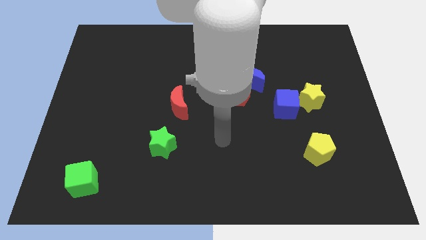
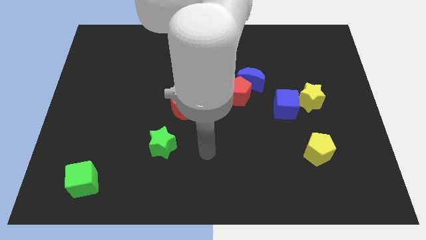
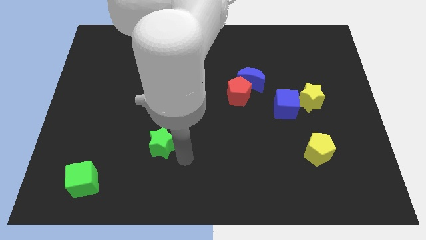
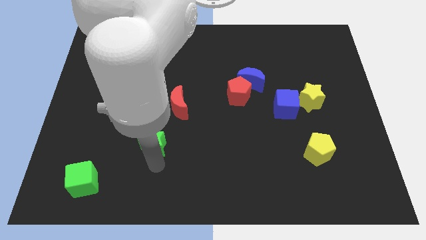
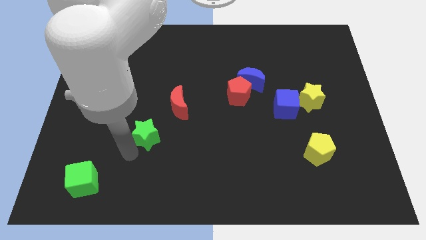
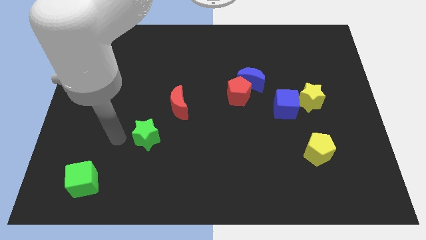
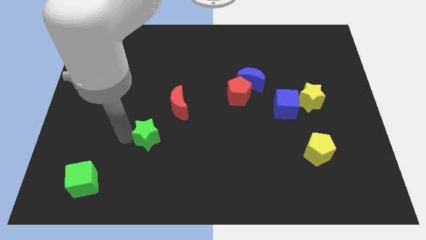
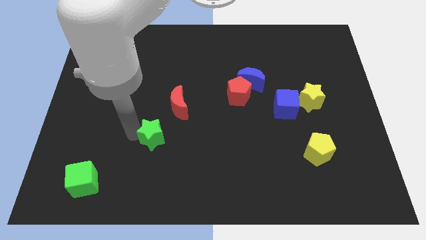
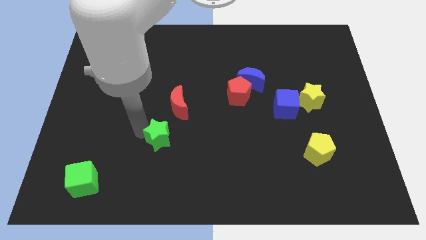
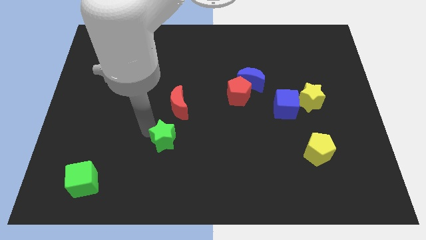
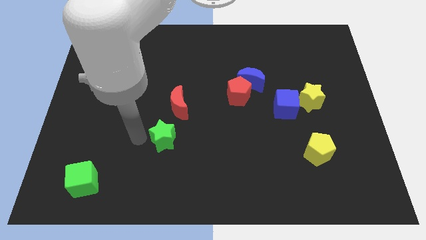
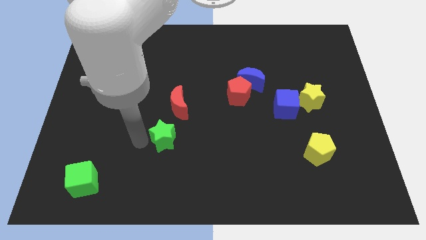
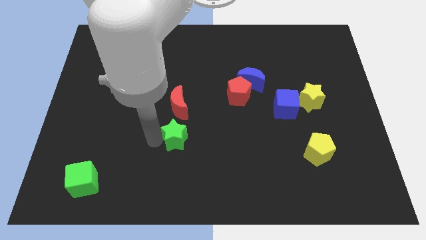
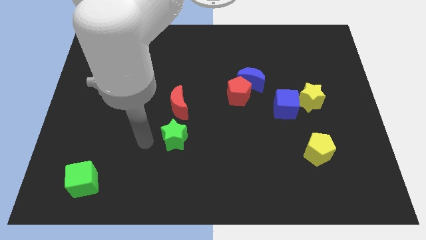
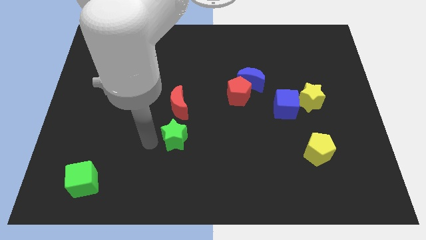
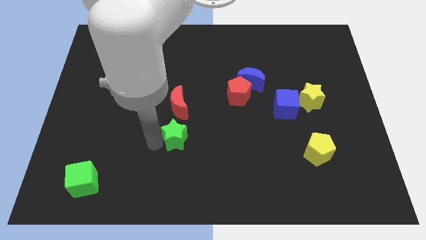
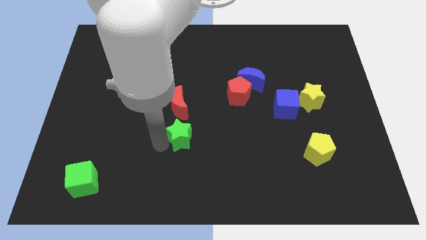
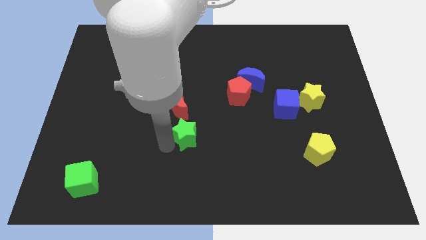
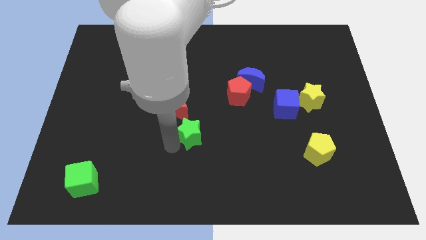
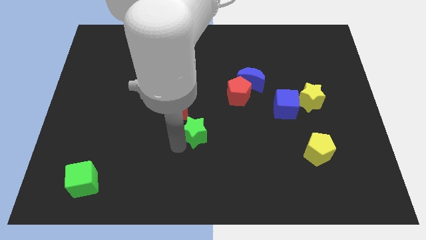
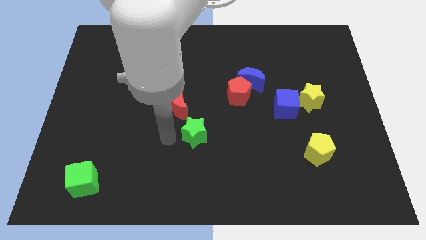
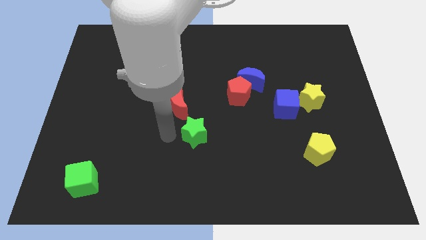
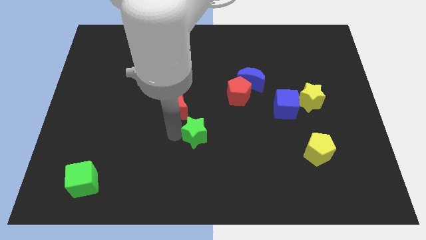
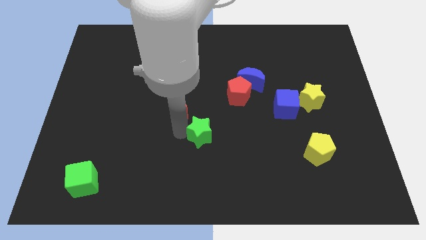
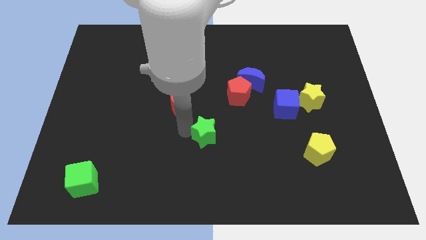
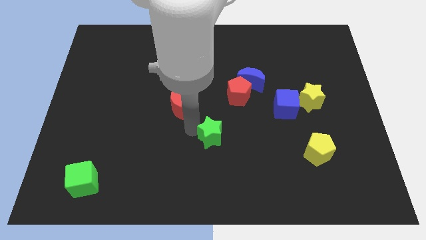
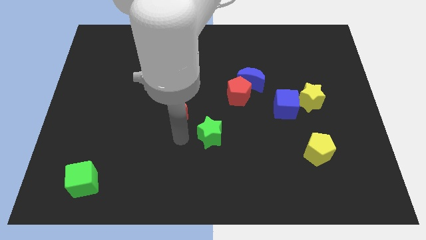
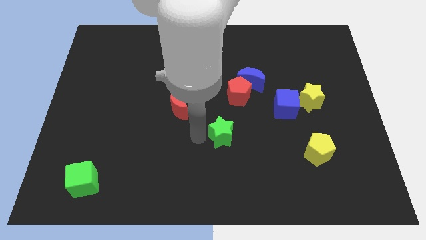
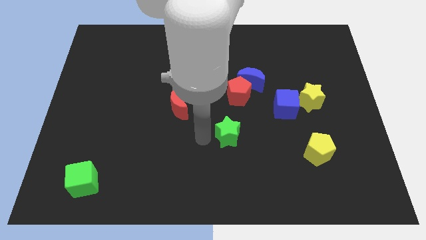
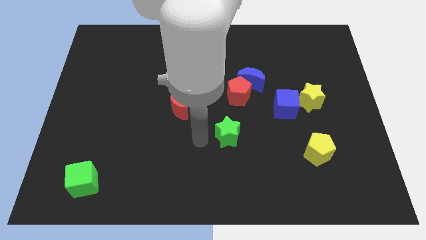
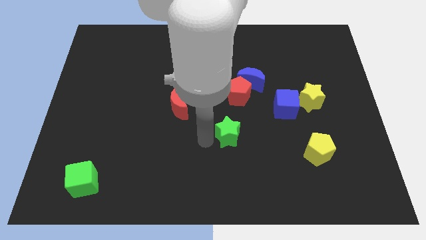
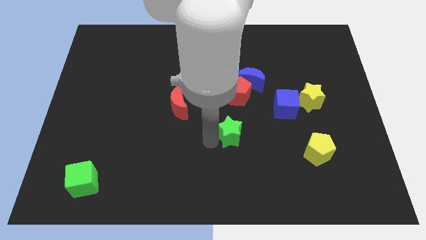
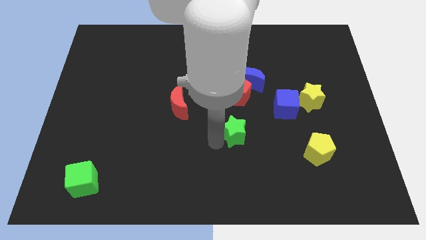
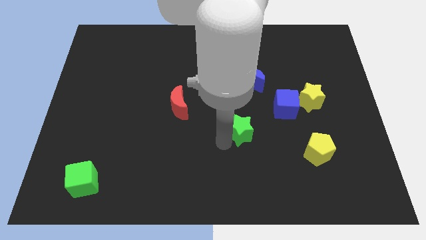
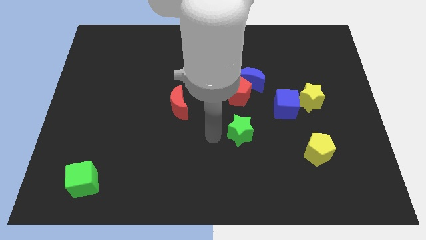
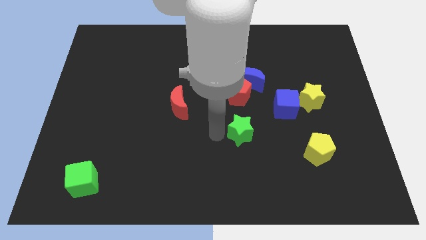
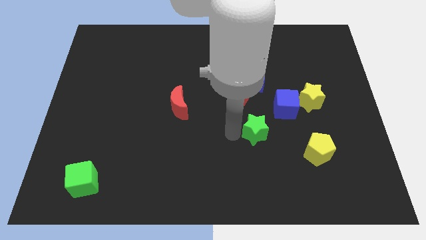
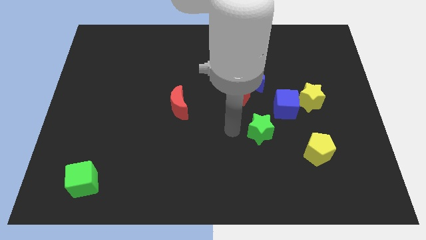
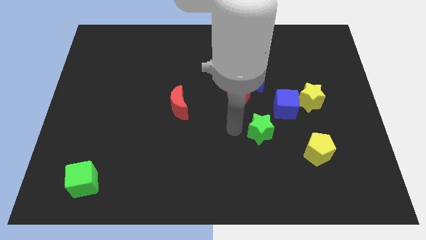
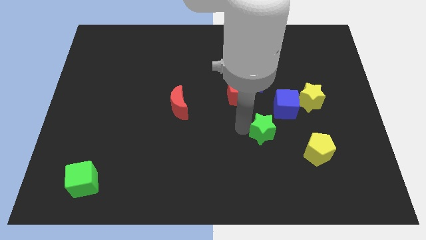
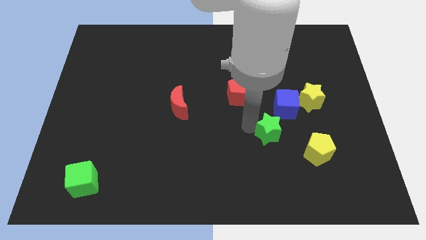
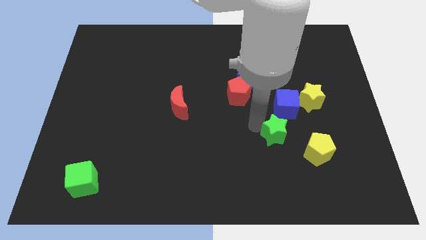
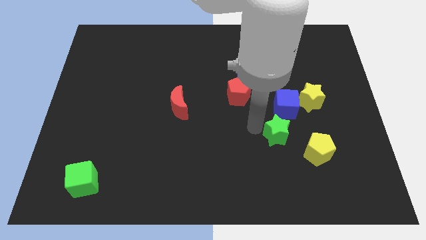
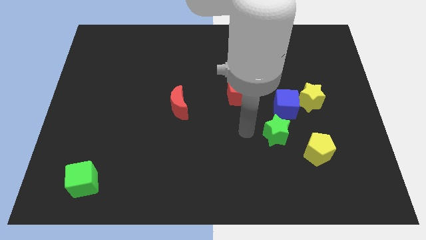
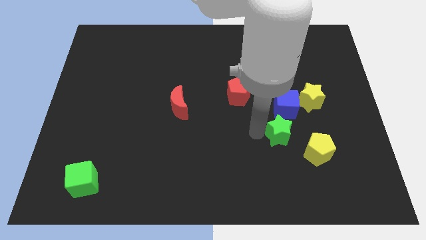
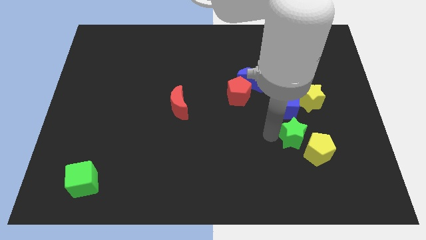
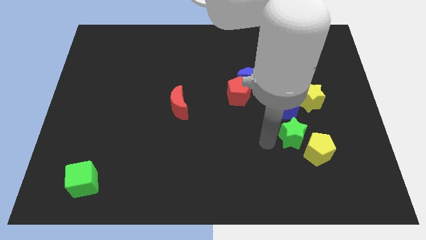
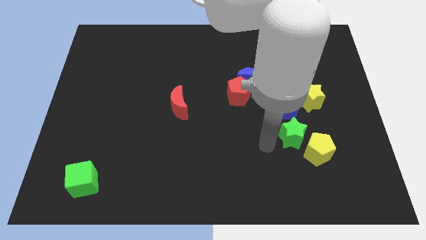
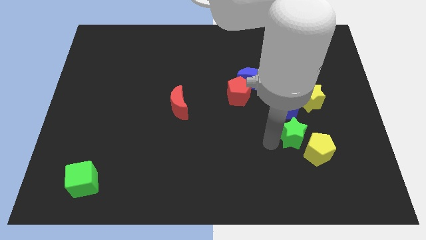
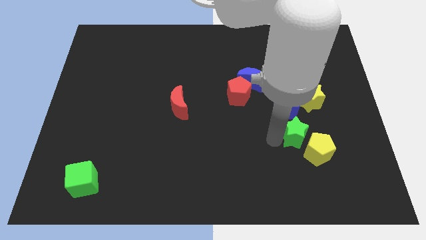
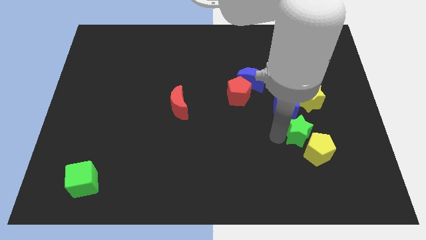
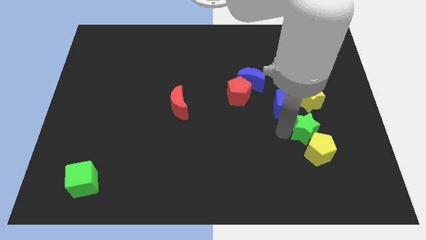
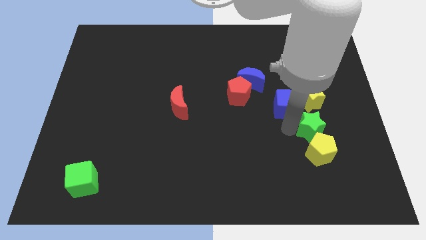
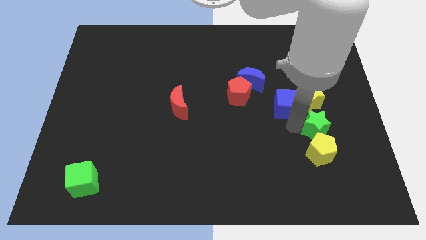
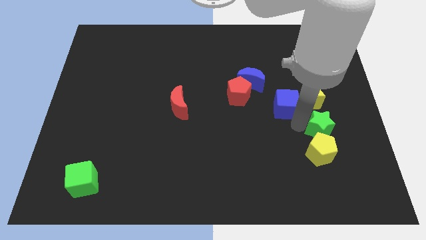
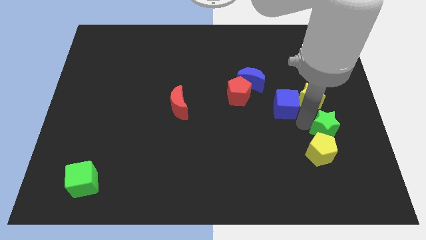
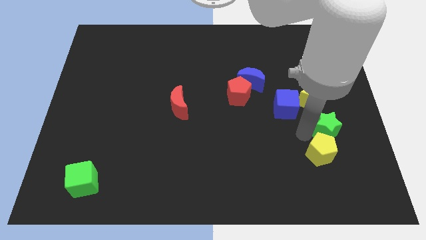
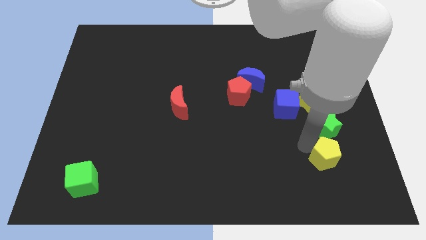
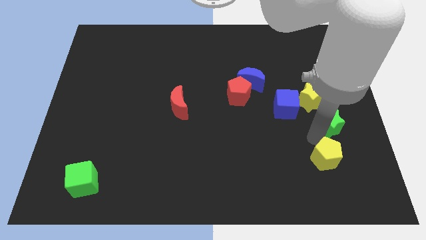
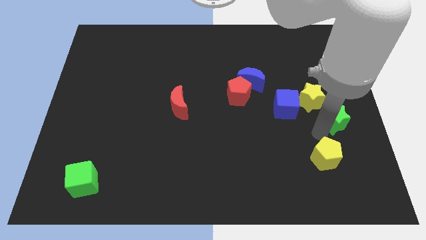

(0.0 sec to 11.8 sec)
slide the green star to the center right

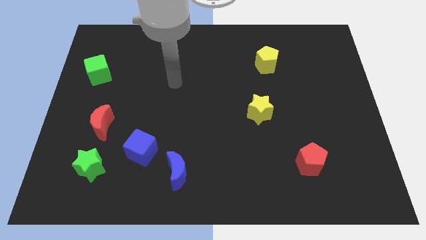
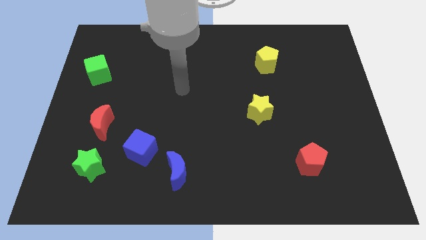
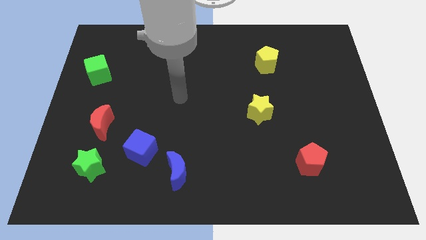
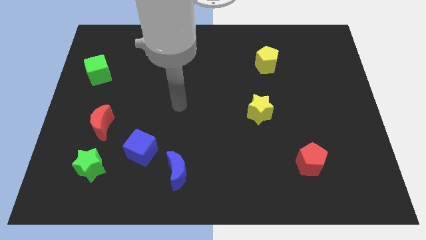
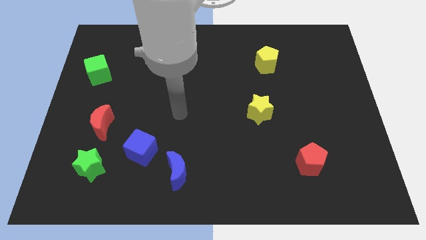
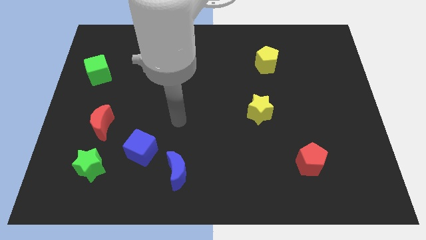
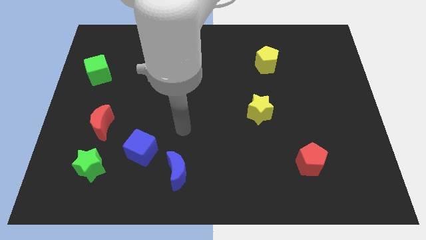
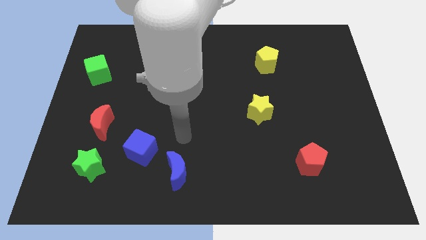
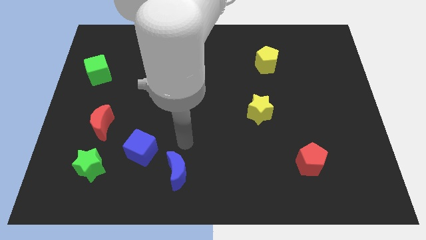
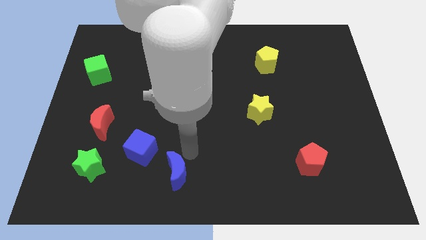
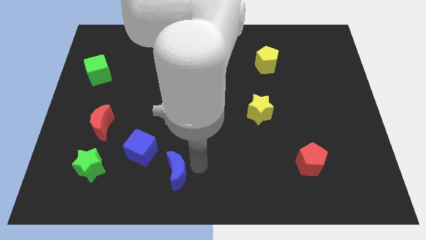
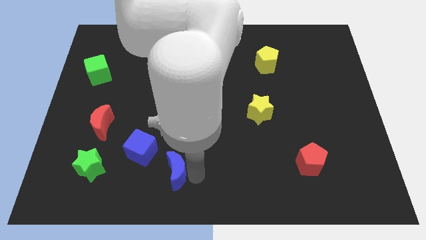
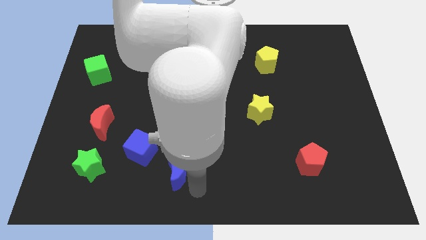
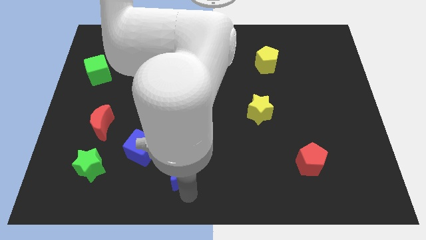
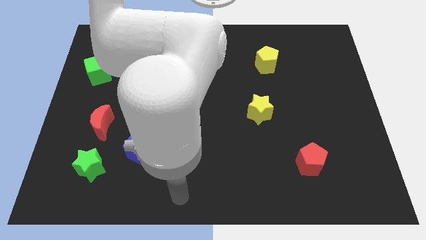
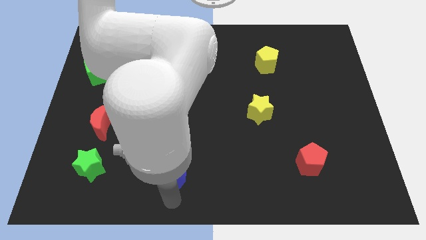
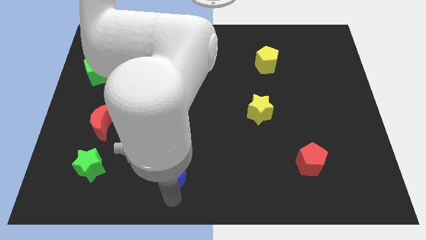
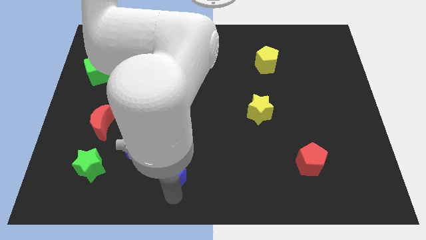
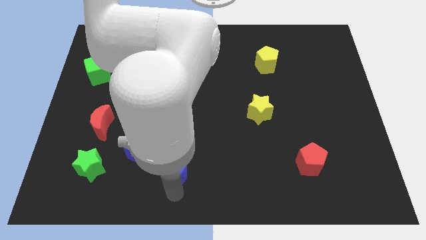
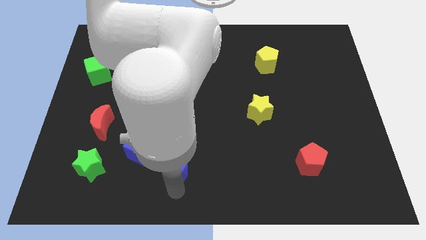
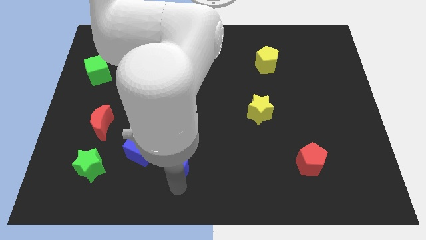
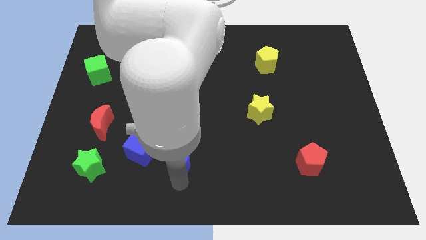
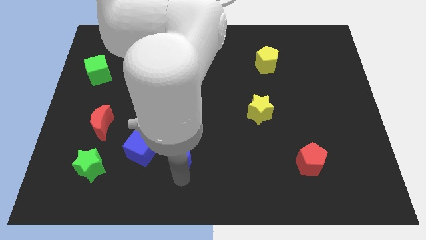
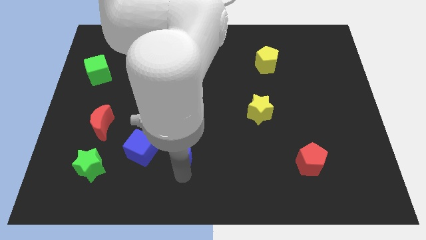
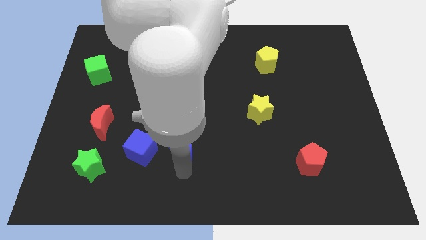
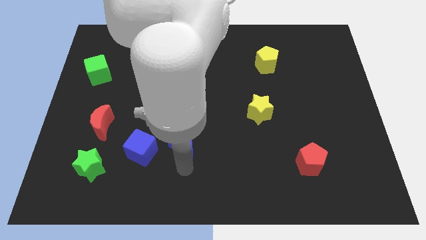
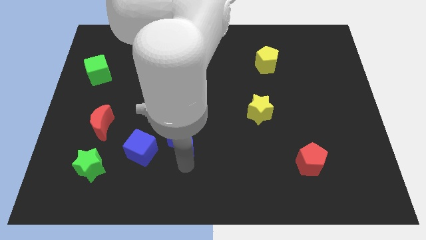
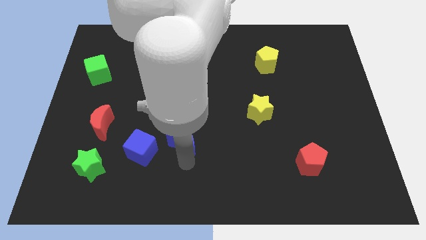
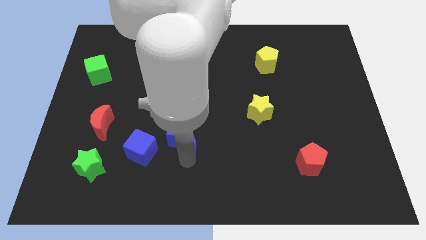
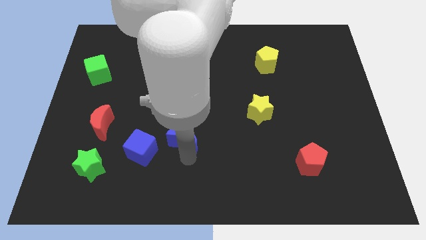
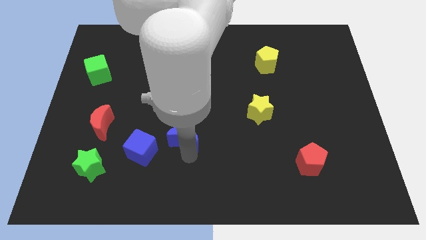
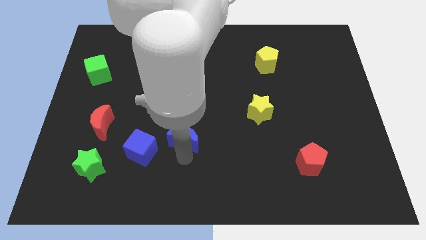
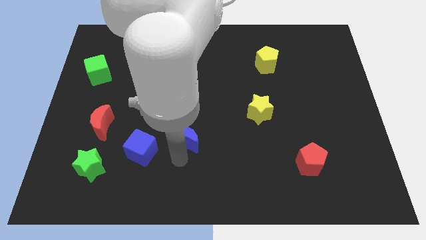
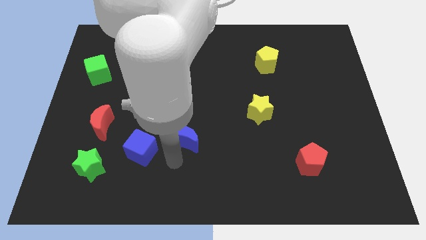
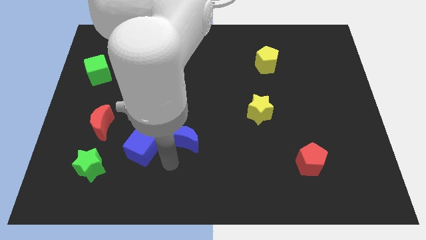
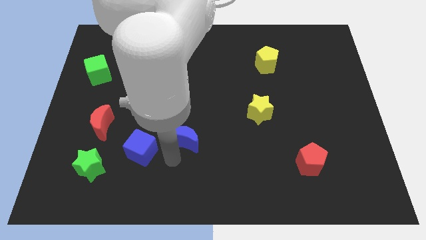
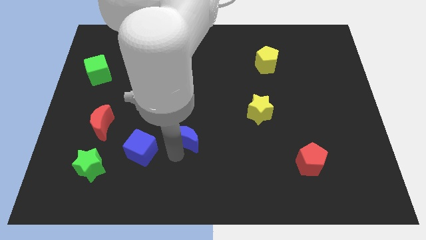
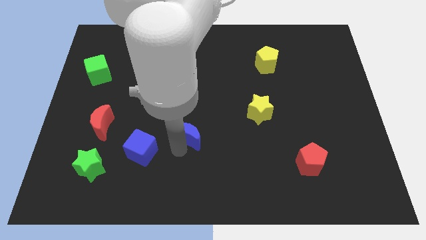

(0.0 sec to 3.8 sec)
slide the blue moon to the middle of the board
